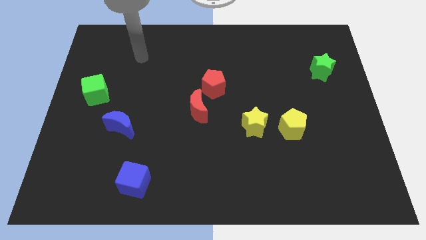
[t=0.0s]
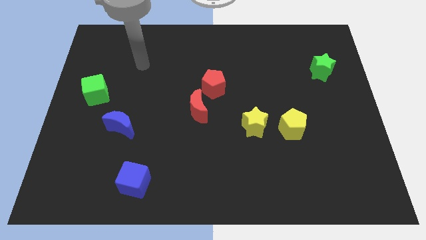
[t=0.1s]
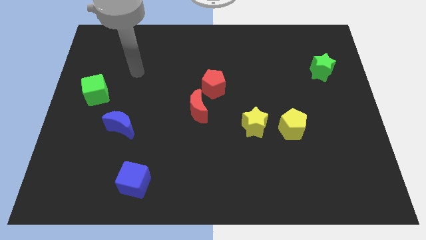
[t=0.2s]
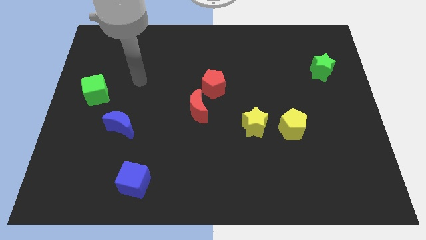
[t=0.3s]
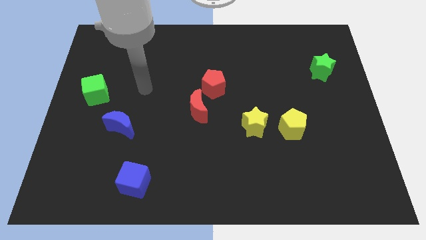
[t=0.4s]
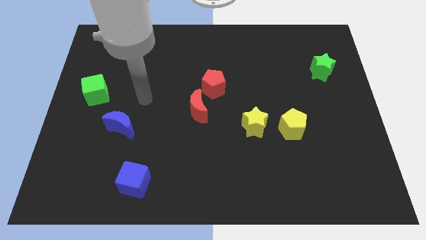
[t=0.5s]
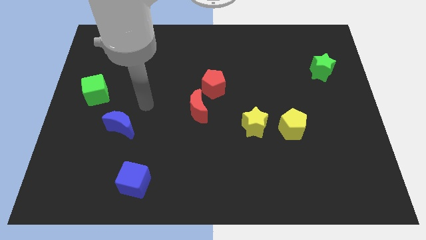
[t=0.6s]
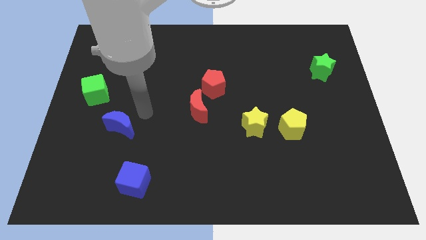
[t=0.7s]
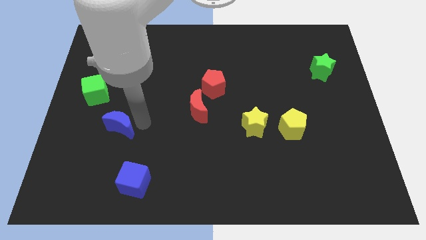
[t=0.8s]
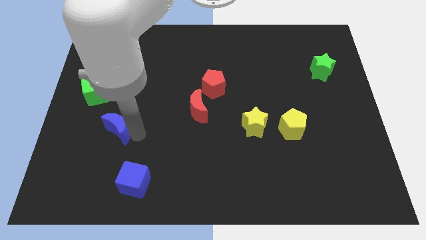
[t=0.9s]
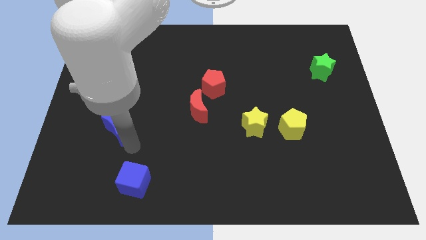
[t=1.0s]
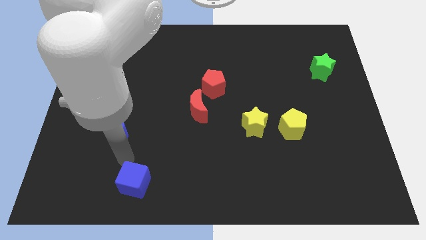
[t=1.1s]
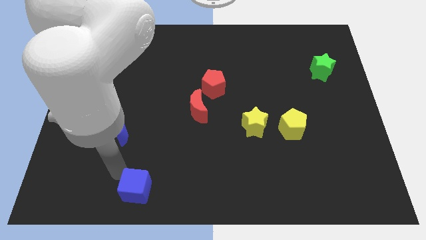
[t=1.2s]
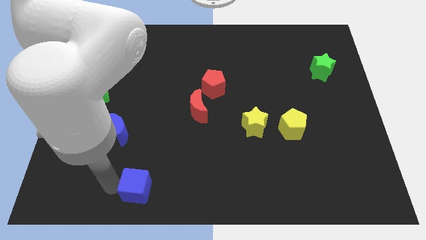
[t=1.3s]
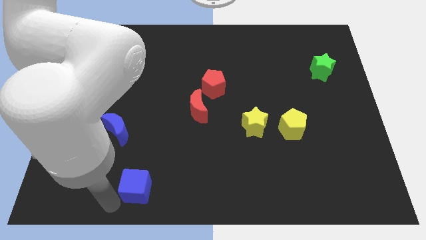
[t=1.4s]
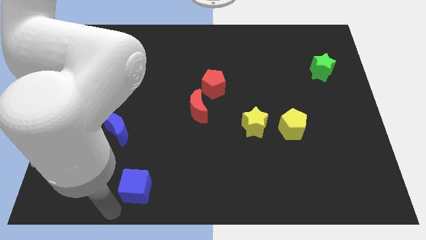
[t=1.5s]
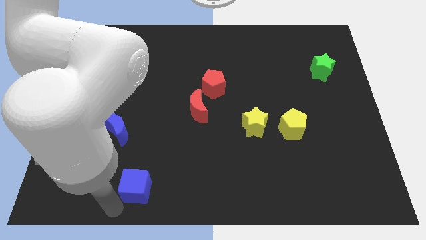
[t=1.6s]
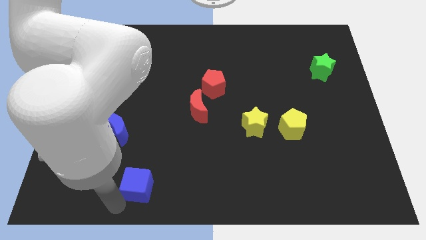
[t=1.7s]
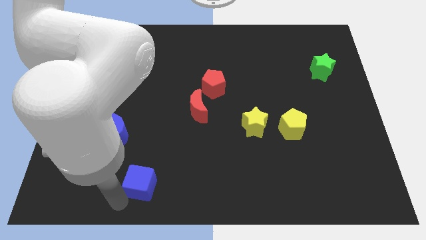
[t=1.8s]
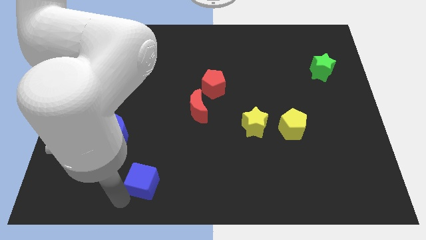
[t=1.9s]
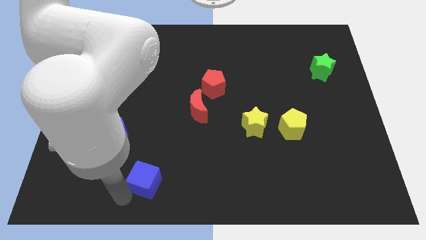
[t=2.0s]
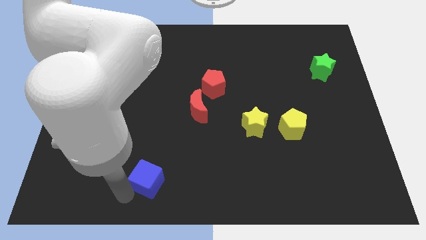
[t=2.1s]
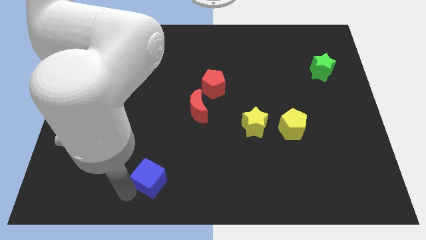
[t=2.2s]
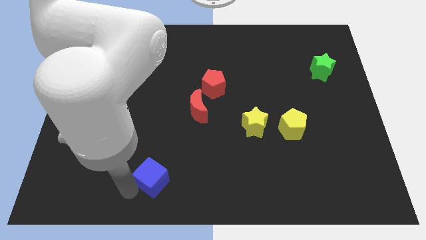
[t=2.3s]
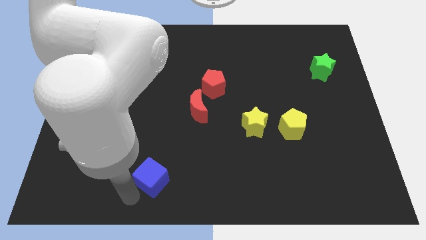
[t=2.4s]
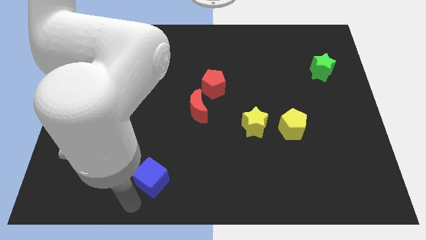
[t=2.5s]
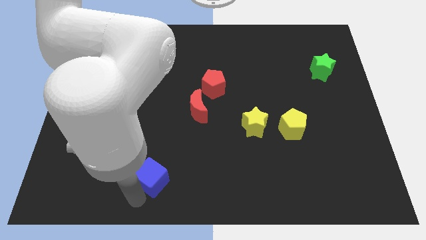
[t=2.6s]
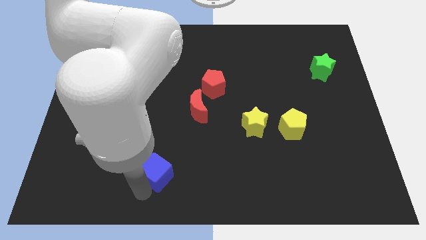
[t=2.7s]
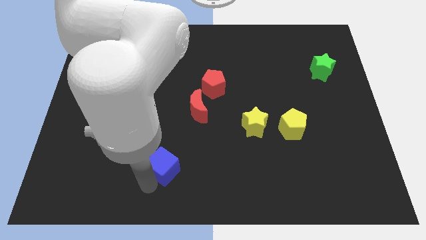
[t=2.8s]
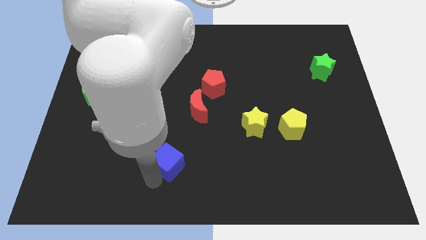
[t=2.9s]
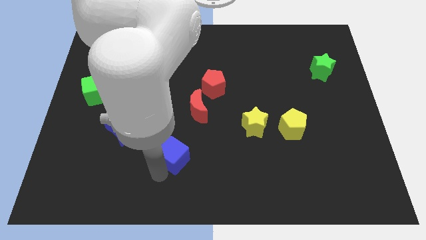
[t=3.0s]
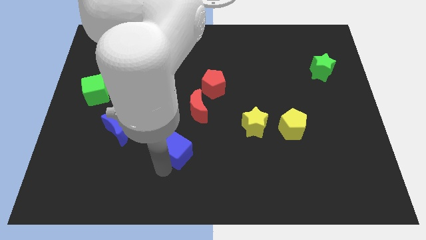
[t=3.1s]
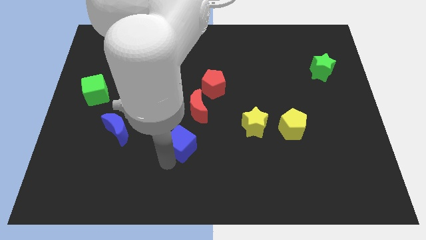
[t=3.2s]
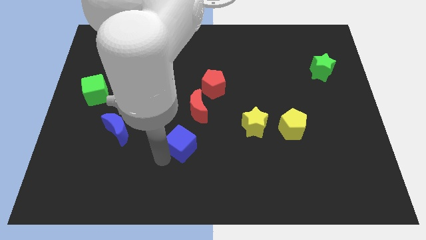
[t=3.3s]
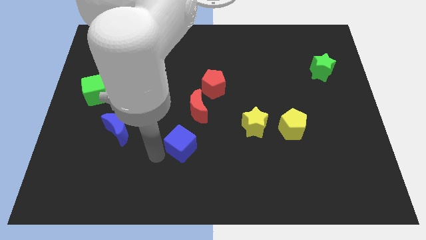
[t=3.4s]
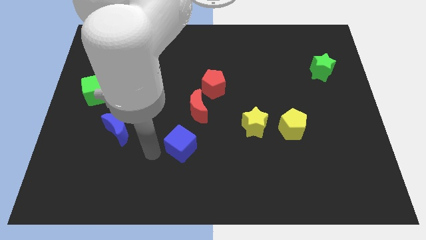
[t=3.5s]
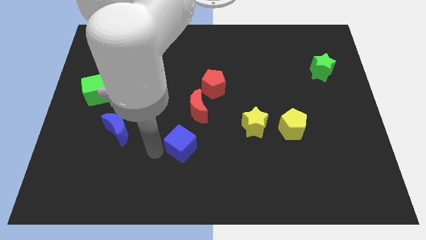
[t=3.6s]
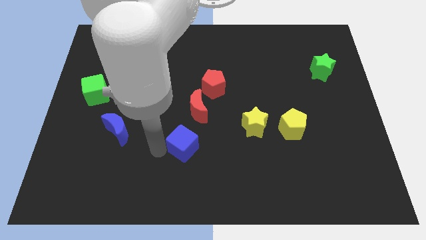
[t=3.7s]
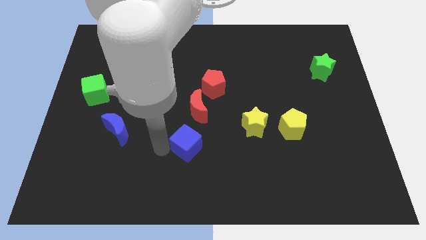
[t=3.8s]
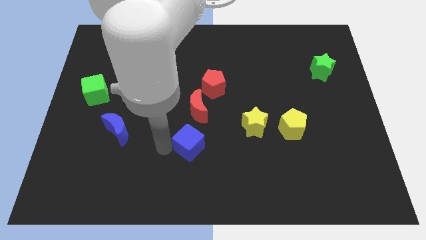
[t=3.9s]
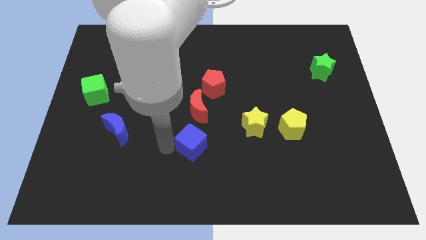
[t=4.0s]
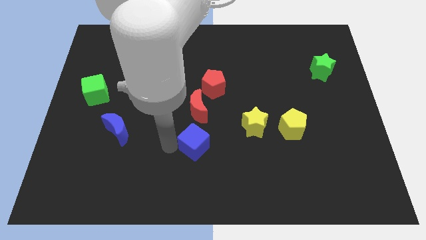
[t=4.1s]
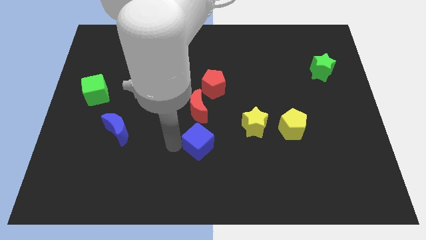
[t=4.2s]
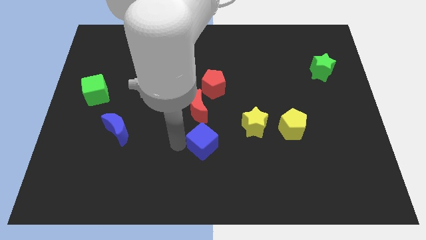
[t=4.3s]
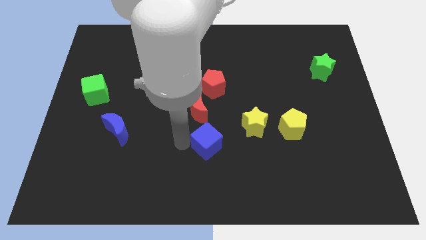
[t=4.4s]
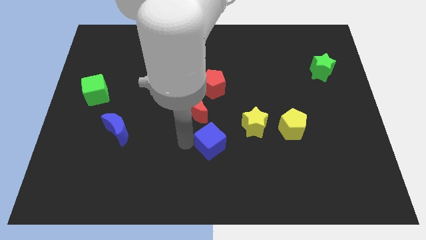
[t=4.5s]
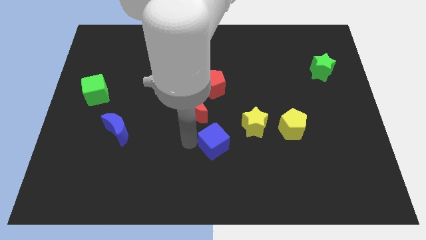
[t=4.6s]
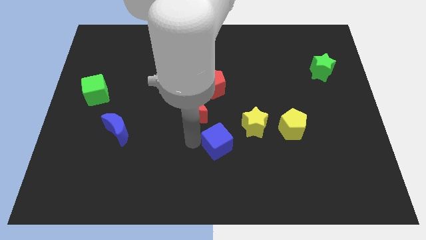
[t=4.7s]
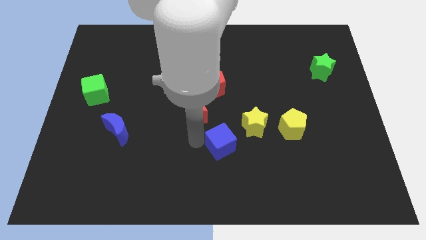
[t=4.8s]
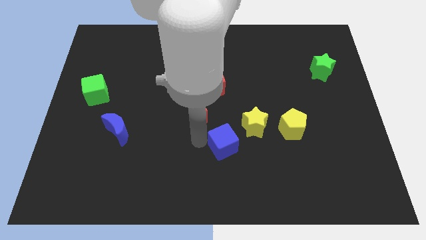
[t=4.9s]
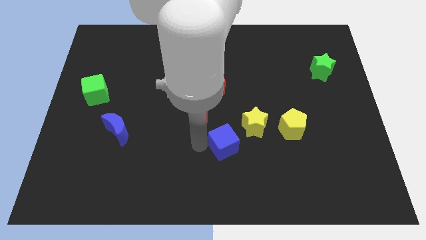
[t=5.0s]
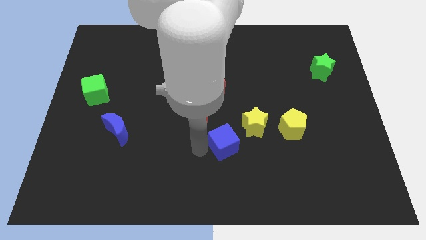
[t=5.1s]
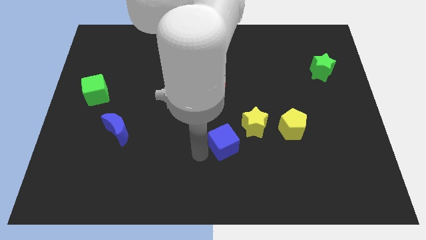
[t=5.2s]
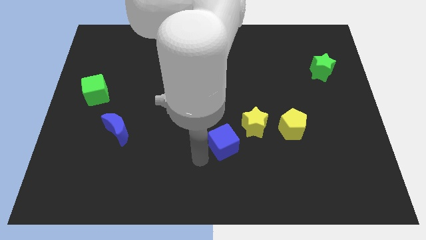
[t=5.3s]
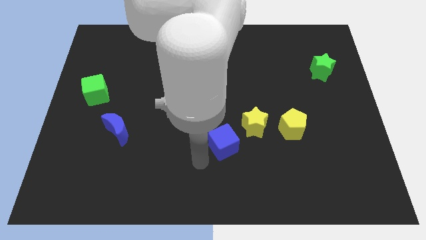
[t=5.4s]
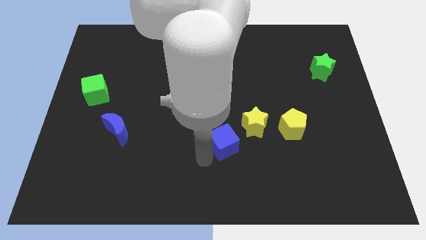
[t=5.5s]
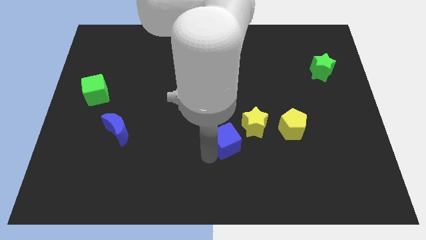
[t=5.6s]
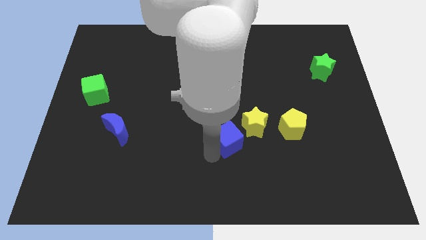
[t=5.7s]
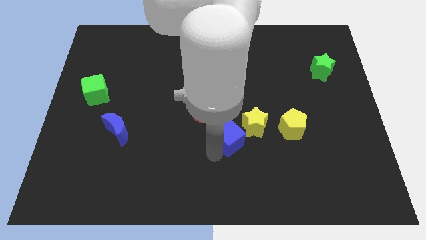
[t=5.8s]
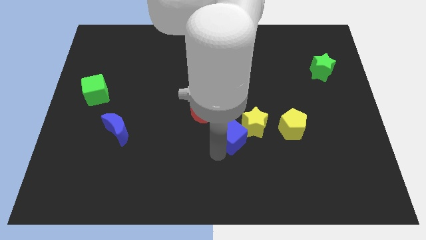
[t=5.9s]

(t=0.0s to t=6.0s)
push the blue cube close to the yellow star

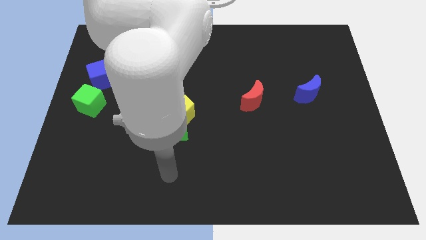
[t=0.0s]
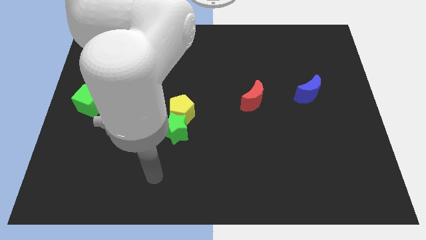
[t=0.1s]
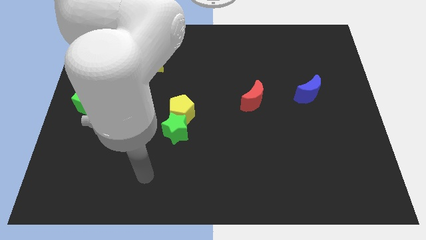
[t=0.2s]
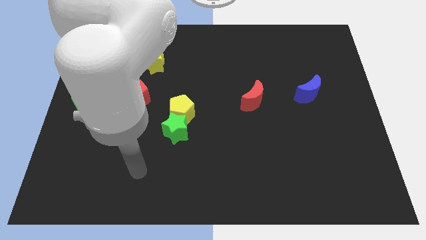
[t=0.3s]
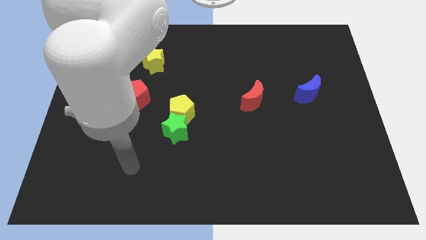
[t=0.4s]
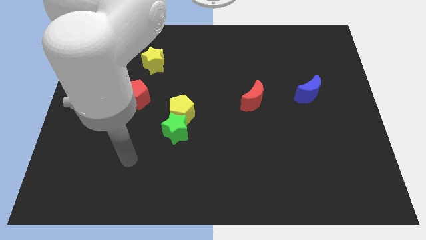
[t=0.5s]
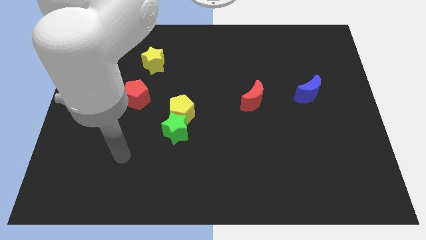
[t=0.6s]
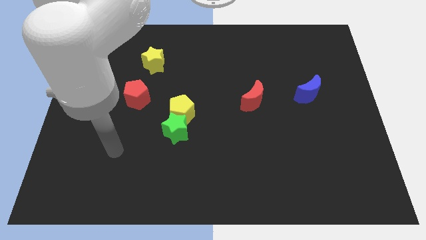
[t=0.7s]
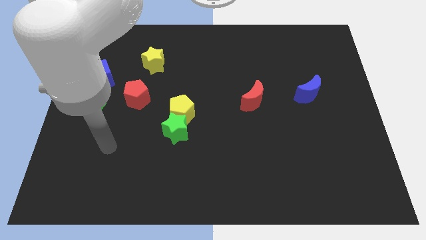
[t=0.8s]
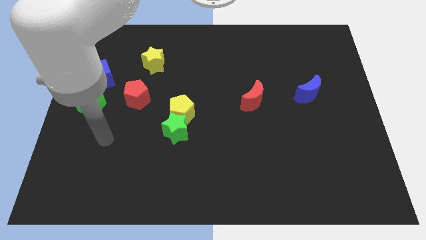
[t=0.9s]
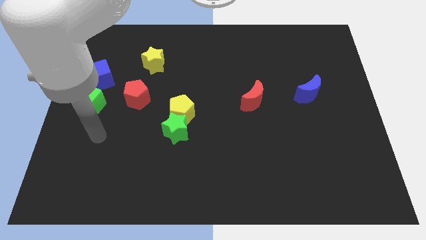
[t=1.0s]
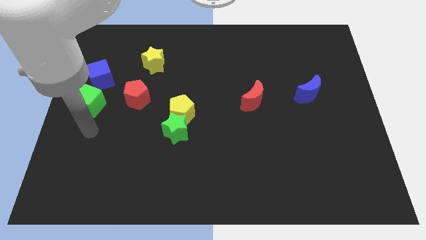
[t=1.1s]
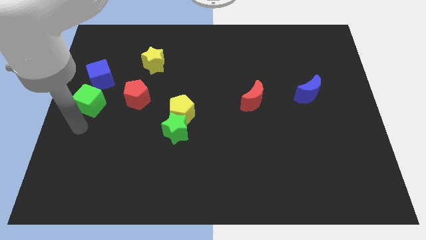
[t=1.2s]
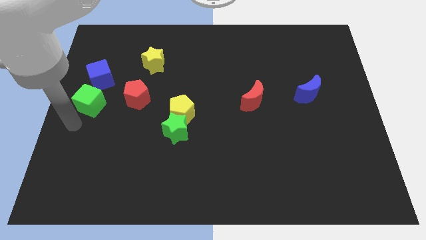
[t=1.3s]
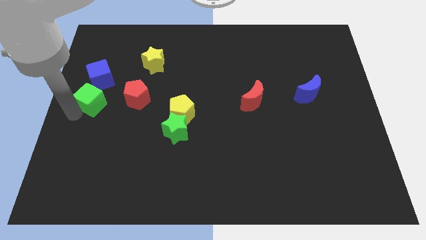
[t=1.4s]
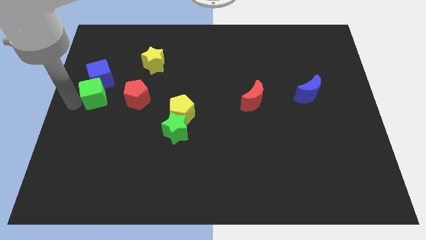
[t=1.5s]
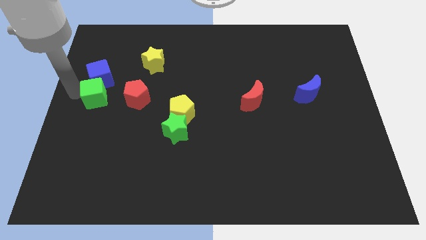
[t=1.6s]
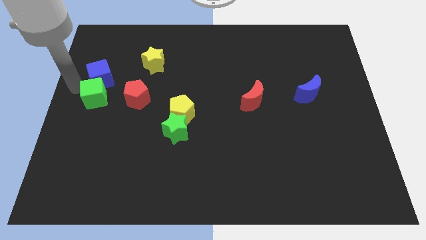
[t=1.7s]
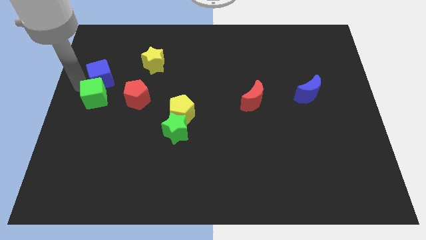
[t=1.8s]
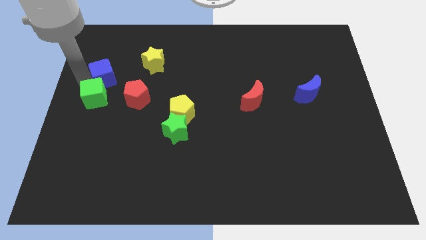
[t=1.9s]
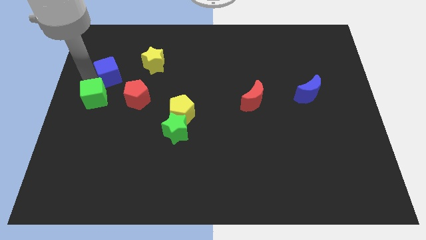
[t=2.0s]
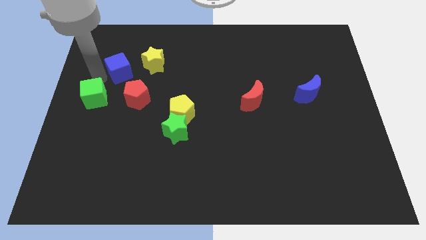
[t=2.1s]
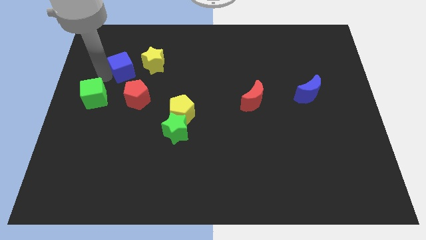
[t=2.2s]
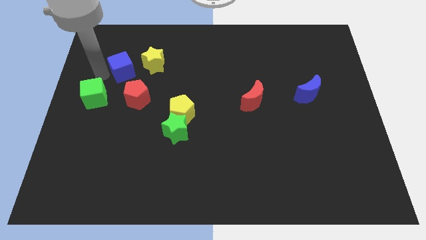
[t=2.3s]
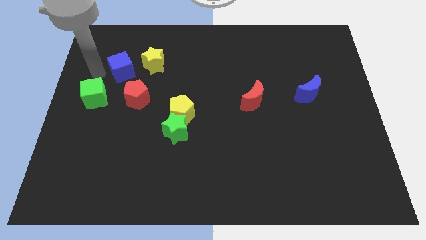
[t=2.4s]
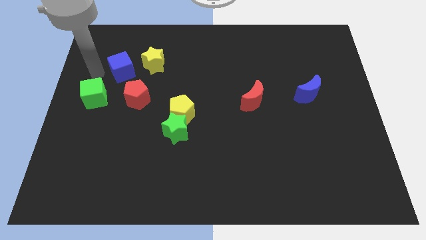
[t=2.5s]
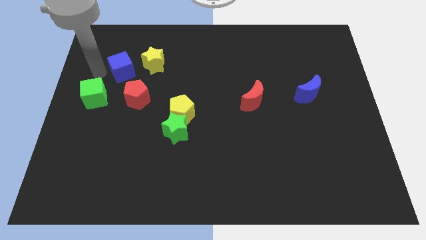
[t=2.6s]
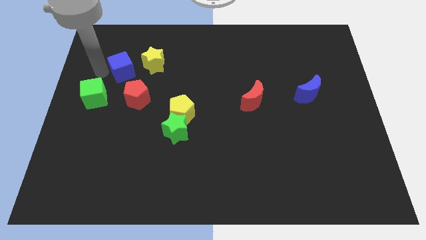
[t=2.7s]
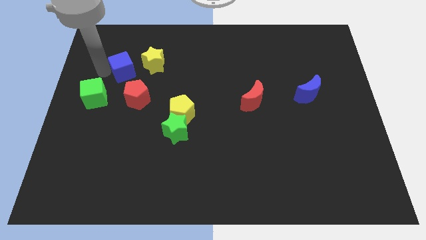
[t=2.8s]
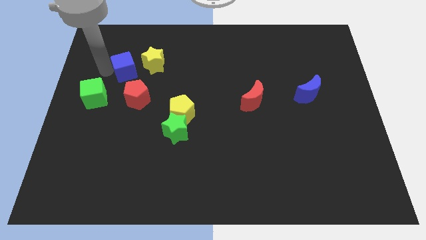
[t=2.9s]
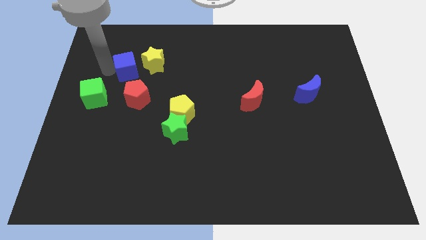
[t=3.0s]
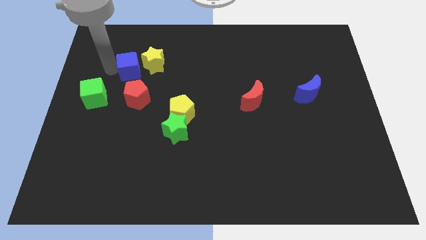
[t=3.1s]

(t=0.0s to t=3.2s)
push the blue cube to the yellow star
